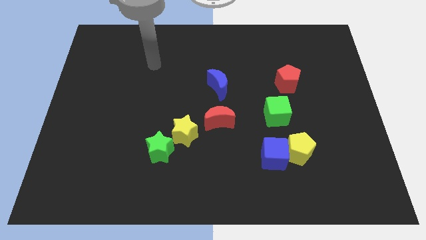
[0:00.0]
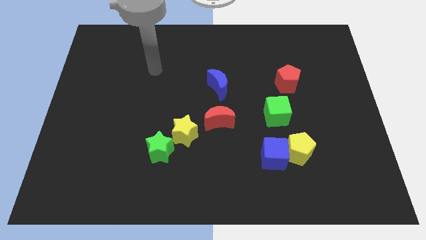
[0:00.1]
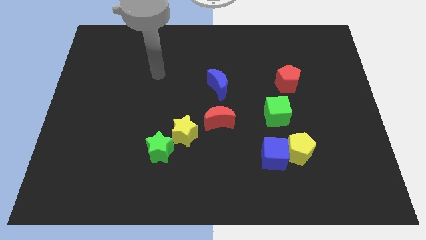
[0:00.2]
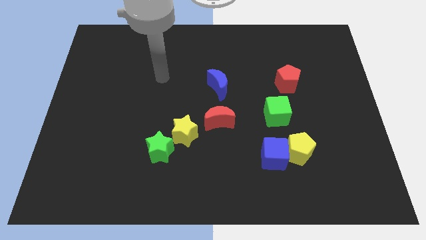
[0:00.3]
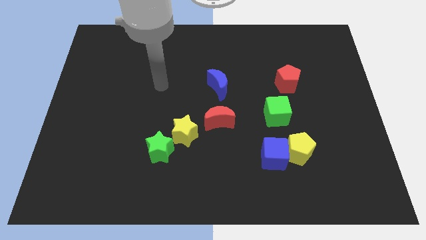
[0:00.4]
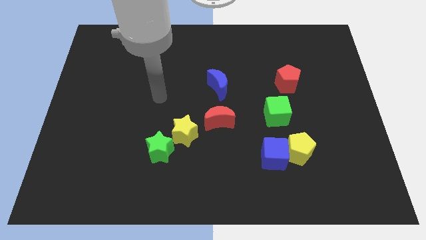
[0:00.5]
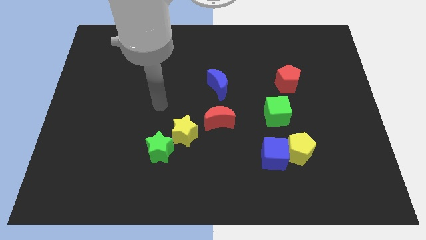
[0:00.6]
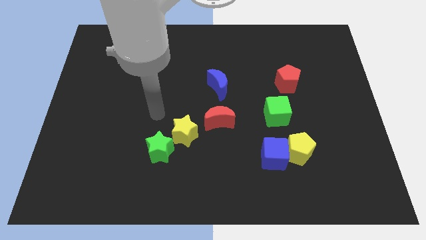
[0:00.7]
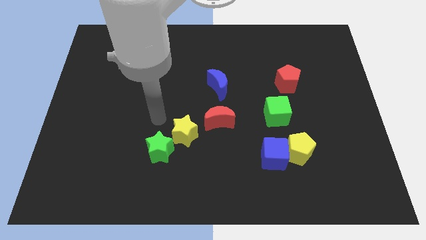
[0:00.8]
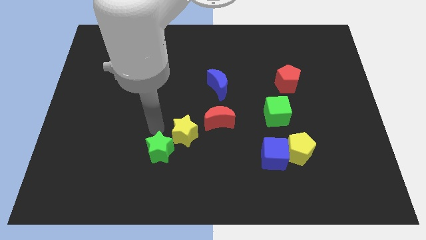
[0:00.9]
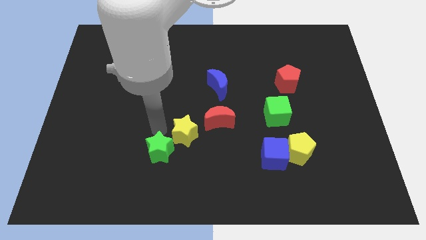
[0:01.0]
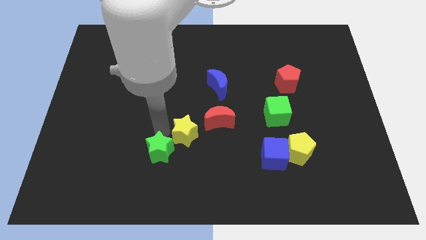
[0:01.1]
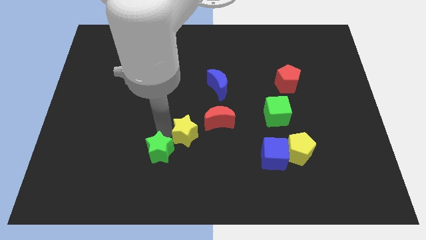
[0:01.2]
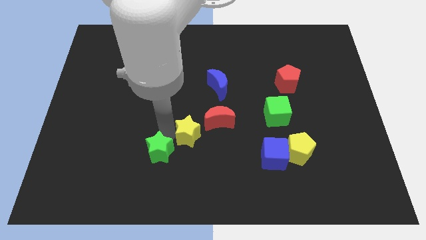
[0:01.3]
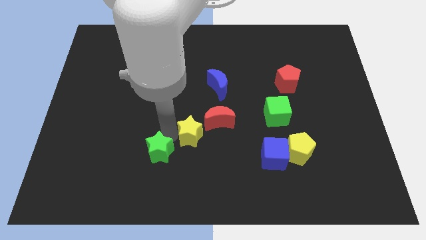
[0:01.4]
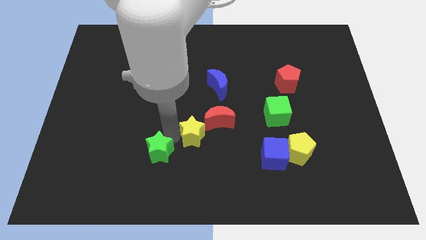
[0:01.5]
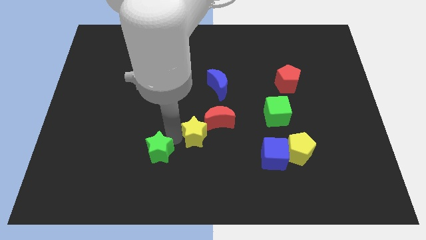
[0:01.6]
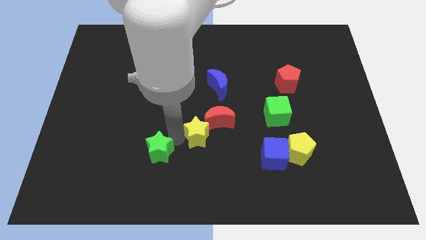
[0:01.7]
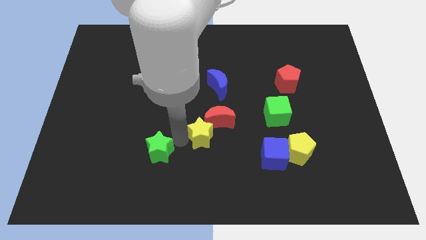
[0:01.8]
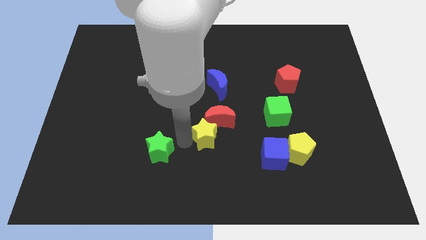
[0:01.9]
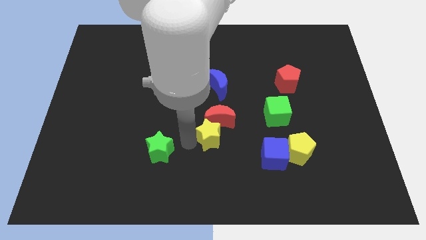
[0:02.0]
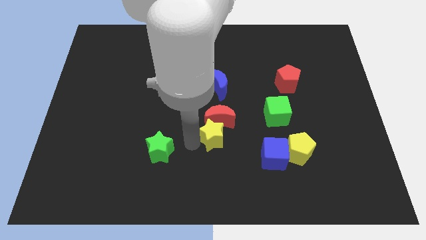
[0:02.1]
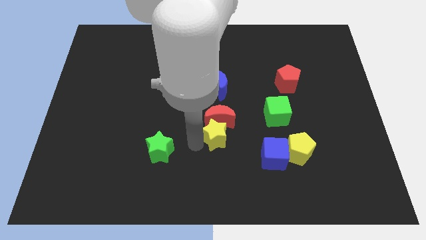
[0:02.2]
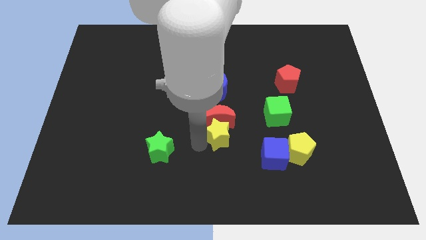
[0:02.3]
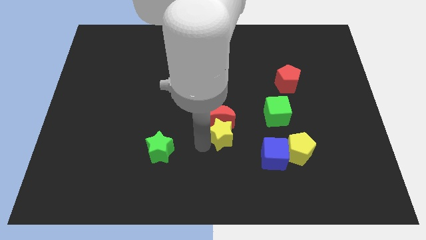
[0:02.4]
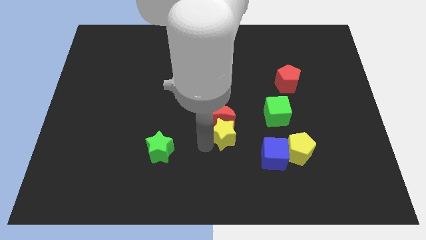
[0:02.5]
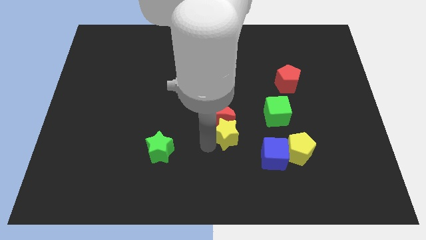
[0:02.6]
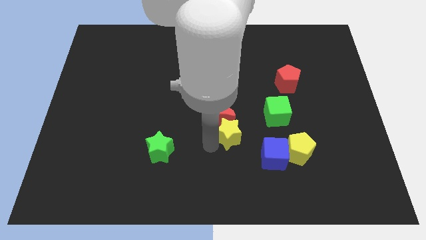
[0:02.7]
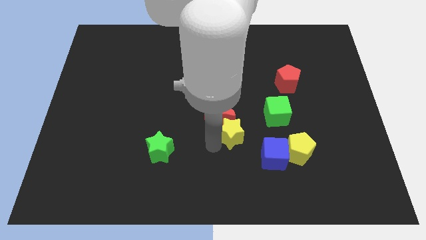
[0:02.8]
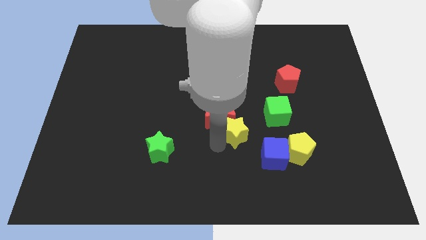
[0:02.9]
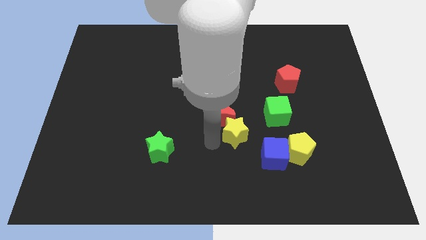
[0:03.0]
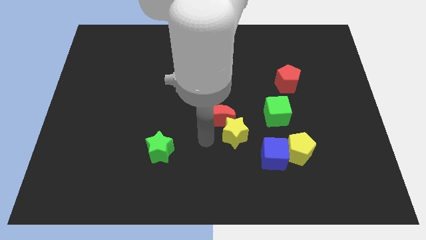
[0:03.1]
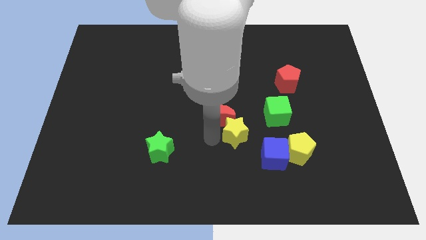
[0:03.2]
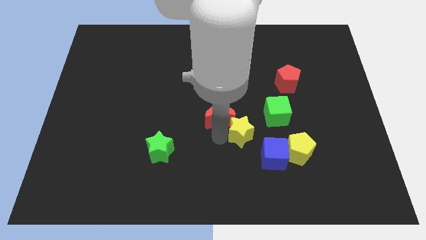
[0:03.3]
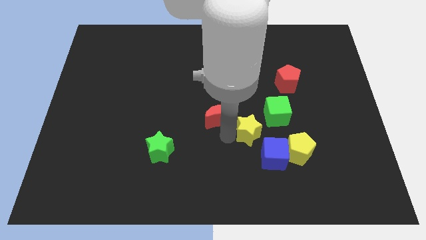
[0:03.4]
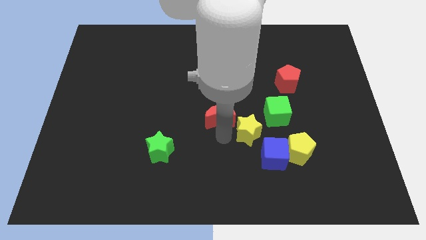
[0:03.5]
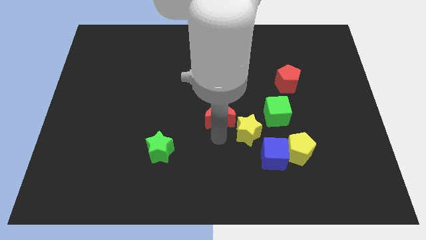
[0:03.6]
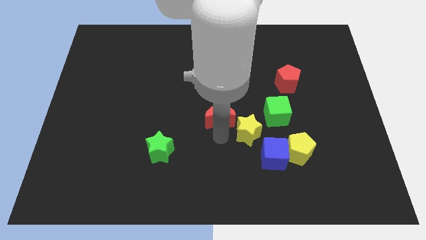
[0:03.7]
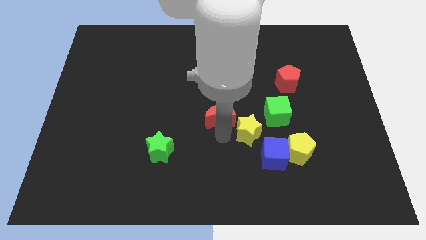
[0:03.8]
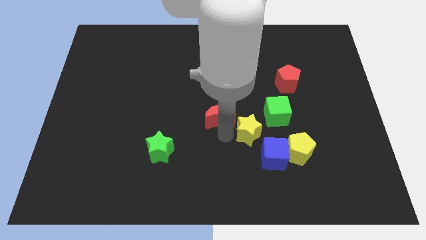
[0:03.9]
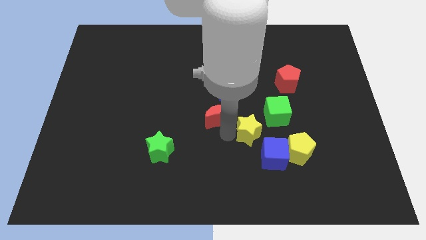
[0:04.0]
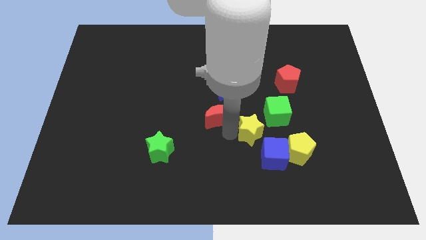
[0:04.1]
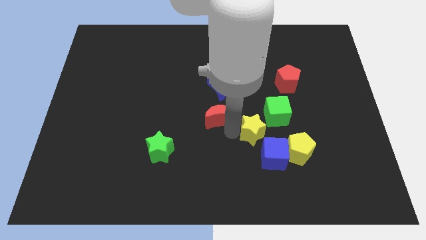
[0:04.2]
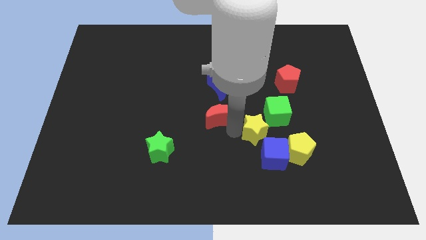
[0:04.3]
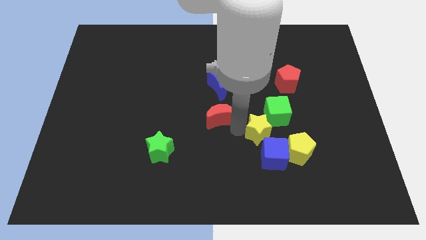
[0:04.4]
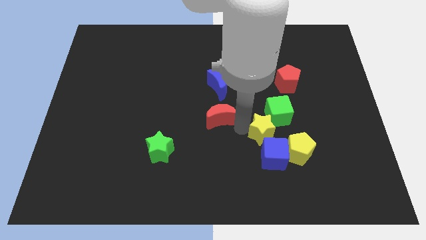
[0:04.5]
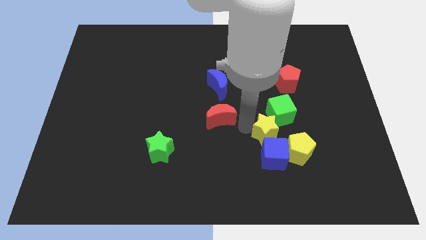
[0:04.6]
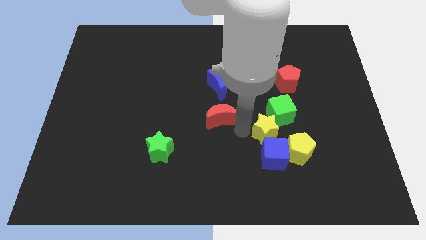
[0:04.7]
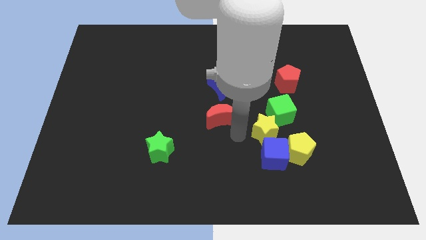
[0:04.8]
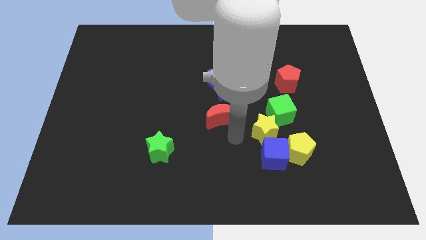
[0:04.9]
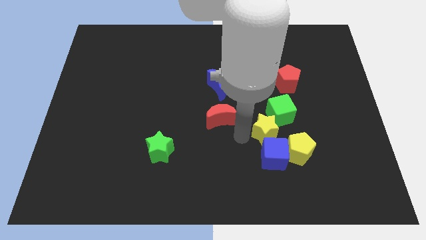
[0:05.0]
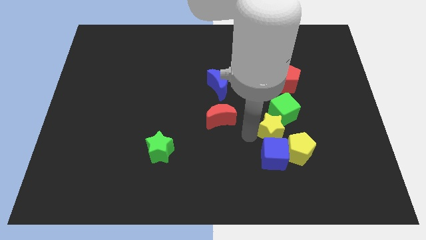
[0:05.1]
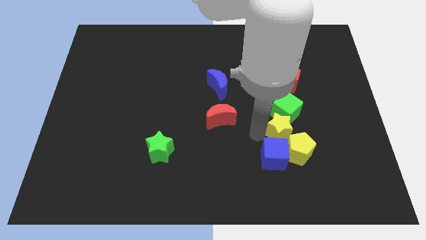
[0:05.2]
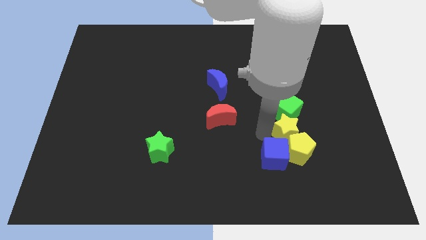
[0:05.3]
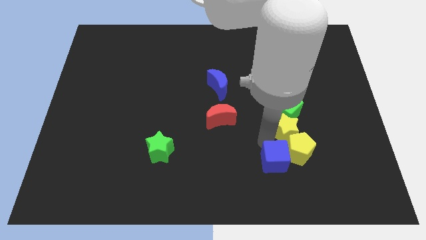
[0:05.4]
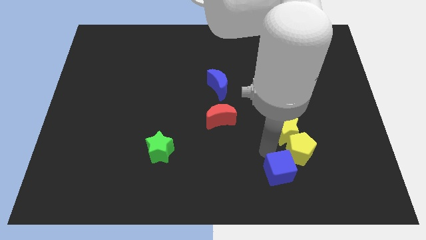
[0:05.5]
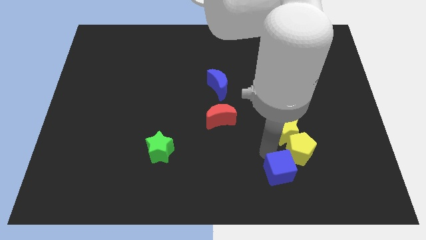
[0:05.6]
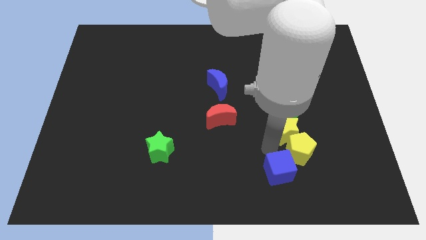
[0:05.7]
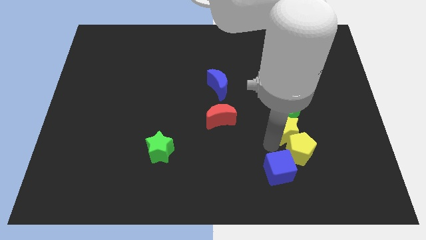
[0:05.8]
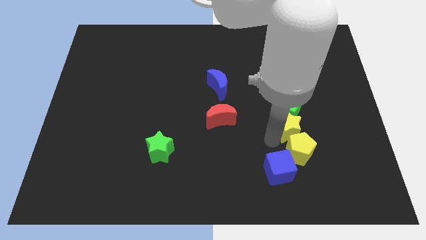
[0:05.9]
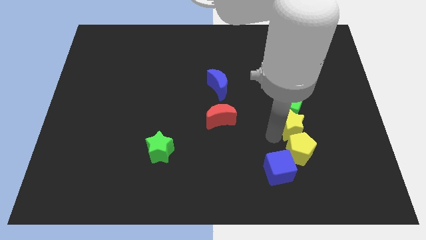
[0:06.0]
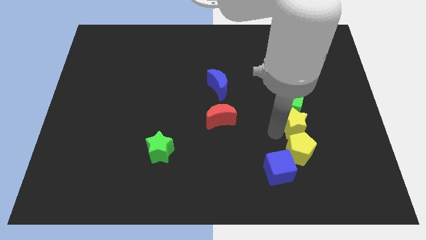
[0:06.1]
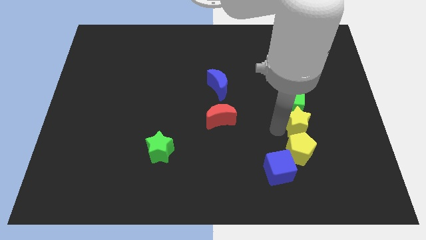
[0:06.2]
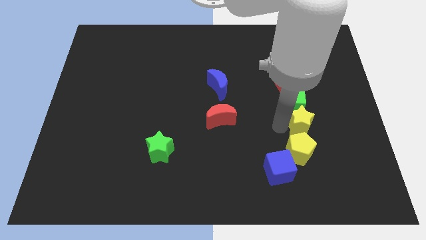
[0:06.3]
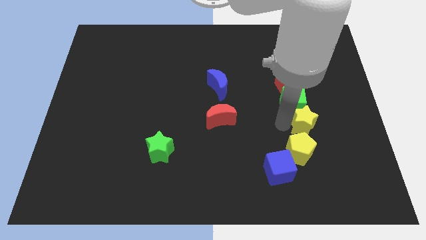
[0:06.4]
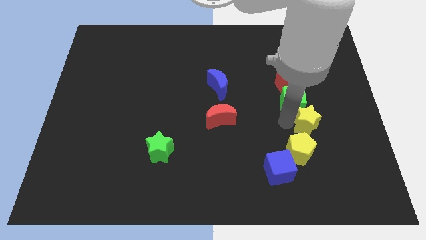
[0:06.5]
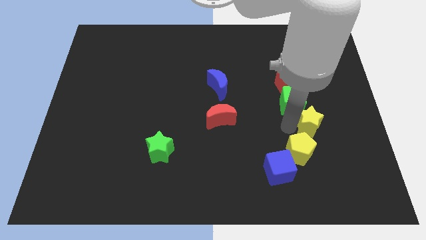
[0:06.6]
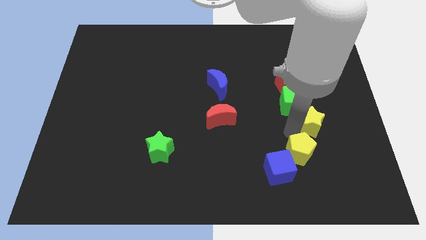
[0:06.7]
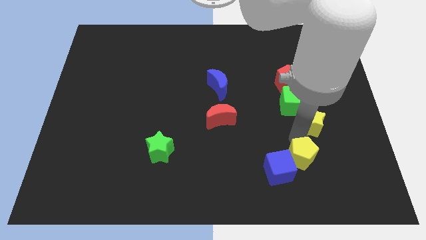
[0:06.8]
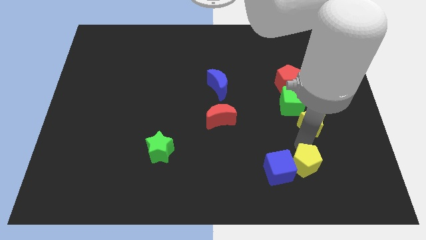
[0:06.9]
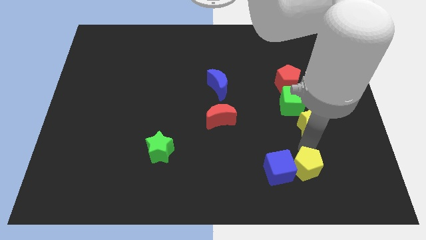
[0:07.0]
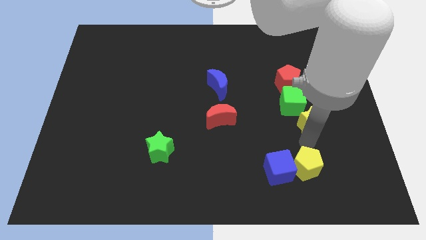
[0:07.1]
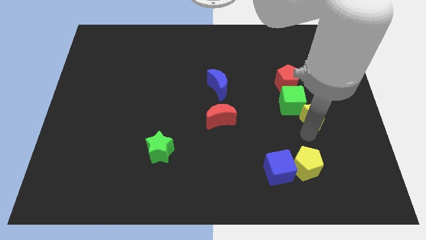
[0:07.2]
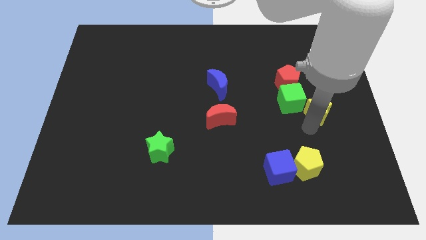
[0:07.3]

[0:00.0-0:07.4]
put the yellow star diagonally down and to the right of the red pentagon
